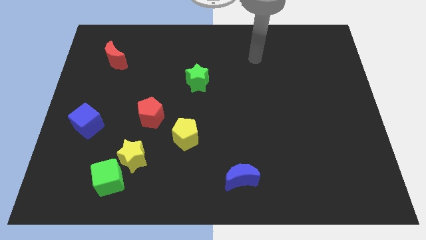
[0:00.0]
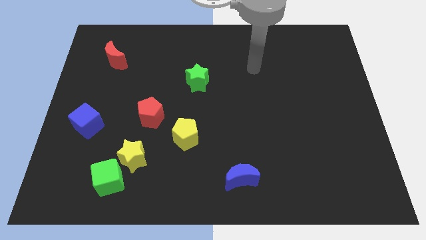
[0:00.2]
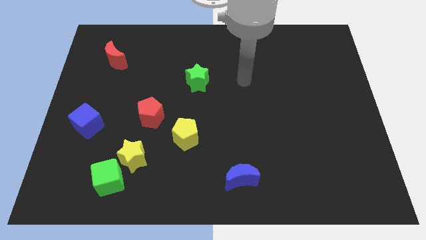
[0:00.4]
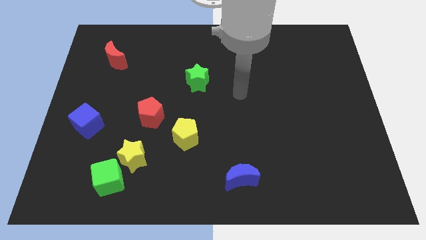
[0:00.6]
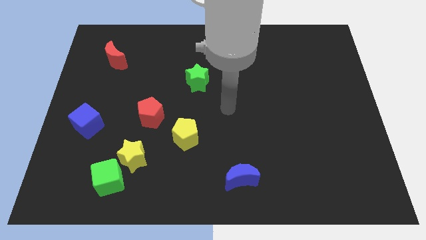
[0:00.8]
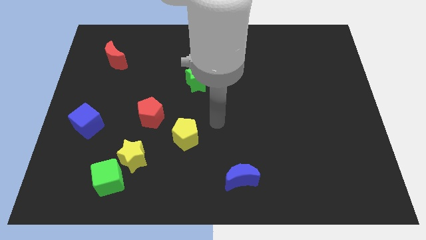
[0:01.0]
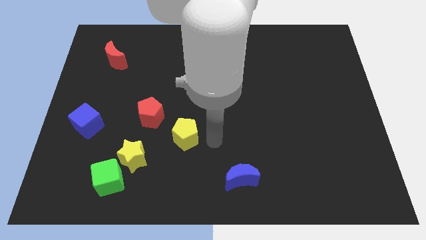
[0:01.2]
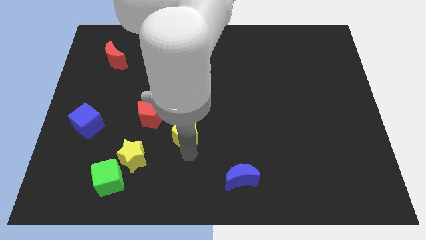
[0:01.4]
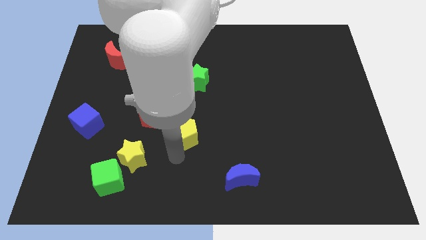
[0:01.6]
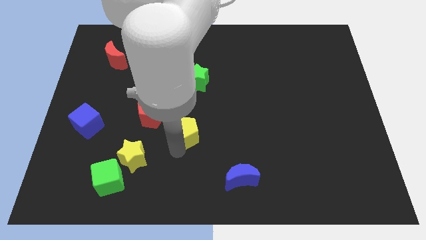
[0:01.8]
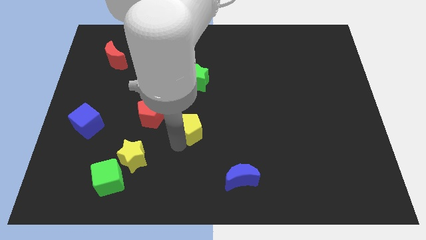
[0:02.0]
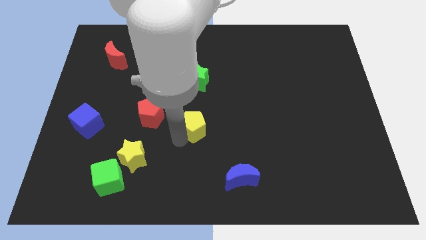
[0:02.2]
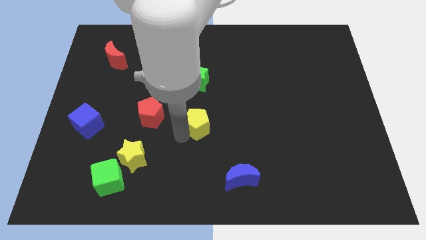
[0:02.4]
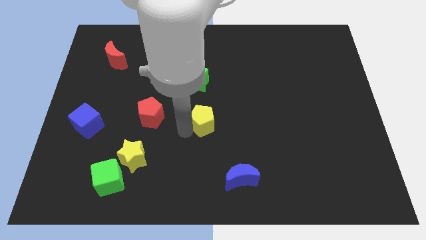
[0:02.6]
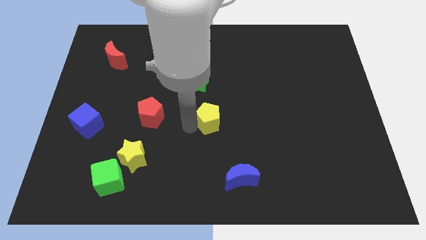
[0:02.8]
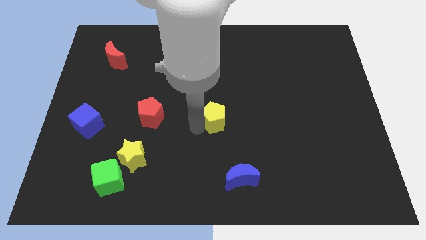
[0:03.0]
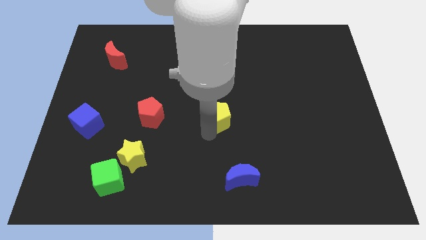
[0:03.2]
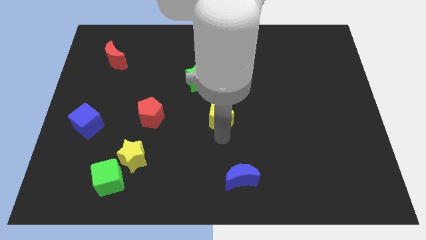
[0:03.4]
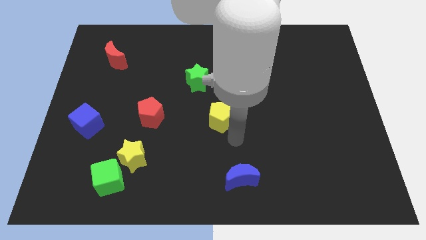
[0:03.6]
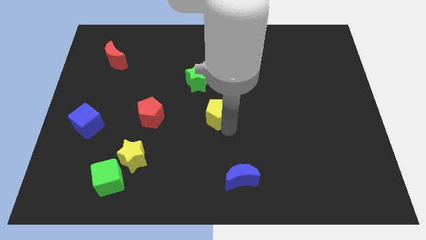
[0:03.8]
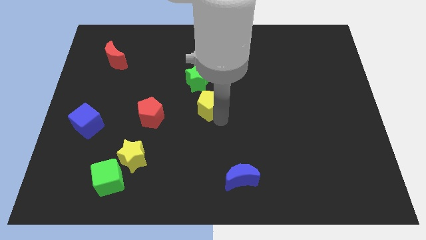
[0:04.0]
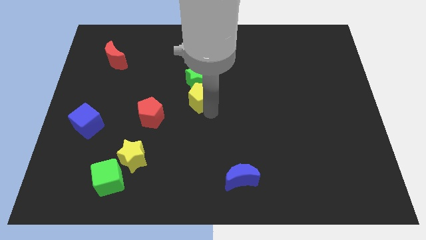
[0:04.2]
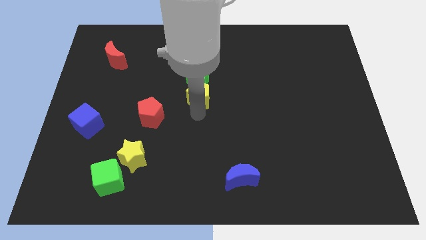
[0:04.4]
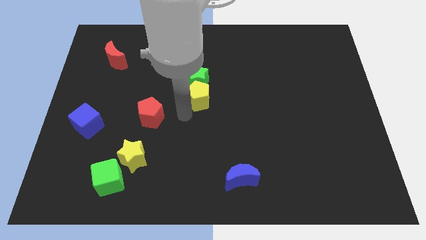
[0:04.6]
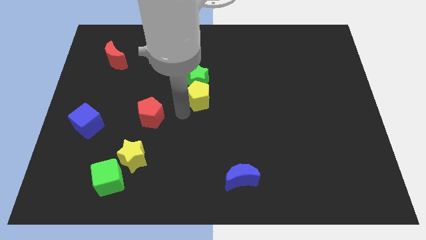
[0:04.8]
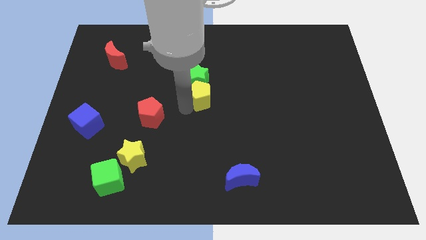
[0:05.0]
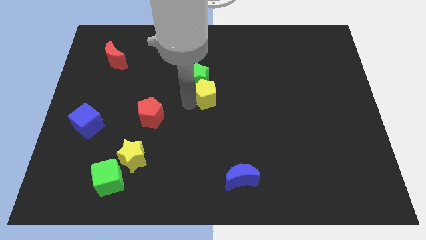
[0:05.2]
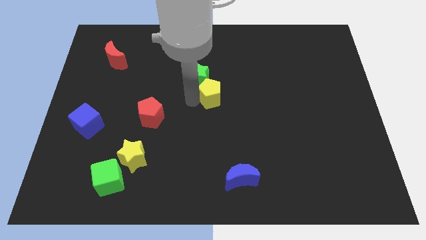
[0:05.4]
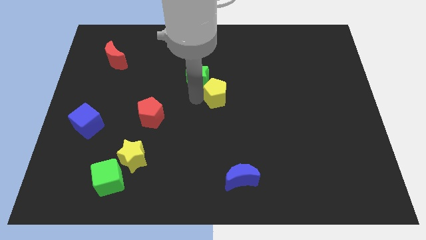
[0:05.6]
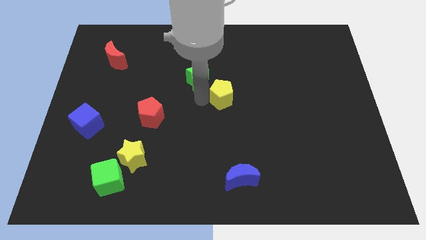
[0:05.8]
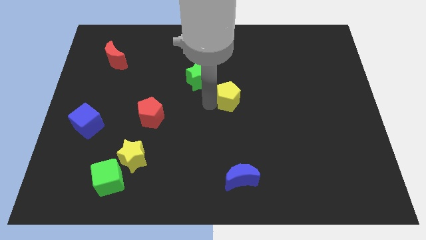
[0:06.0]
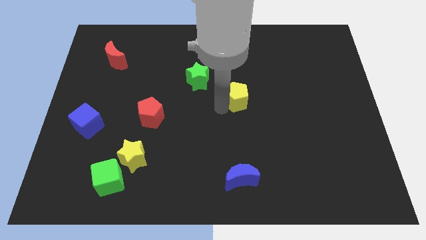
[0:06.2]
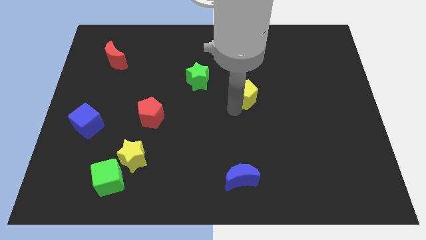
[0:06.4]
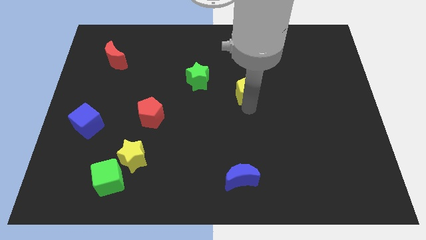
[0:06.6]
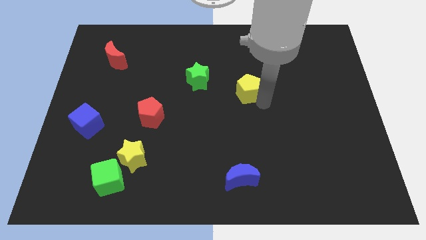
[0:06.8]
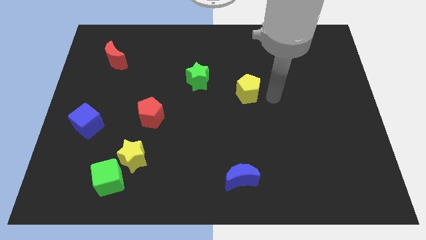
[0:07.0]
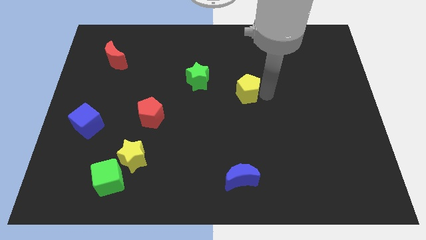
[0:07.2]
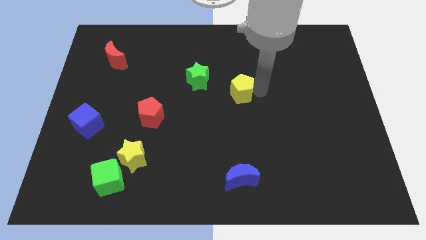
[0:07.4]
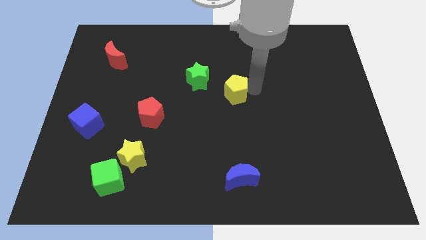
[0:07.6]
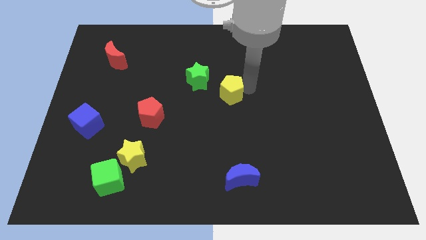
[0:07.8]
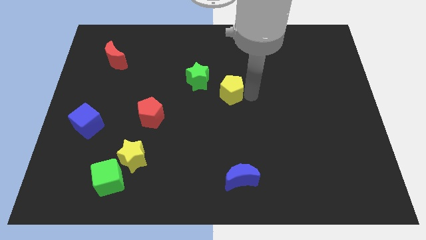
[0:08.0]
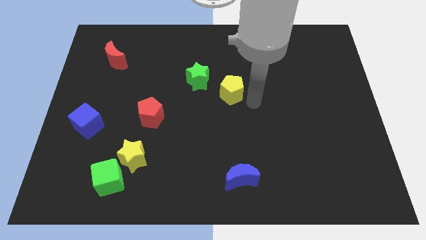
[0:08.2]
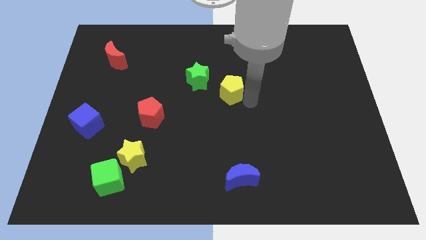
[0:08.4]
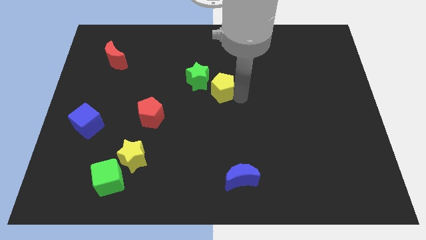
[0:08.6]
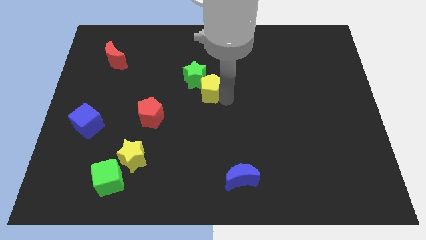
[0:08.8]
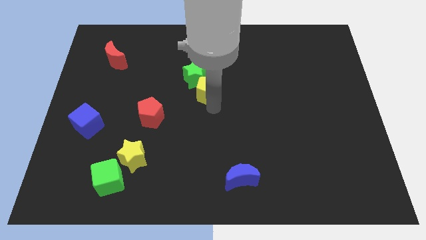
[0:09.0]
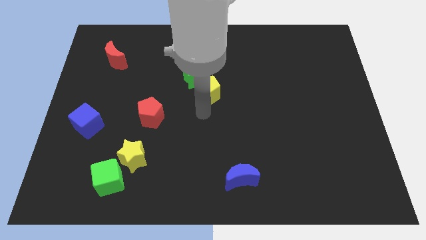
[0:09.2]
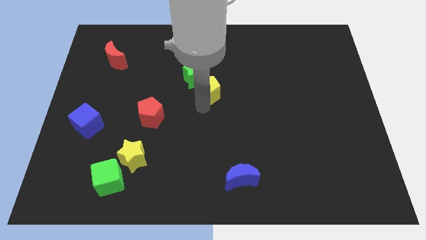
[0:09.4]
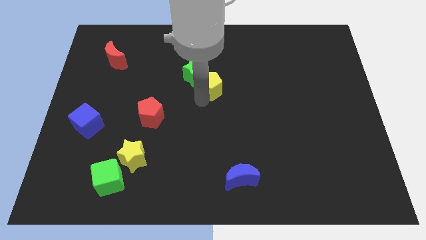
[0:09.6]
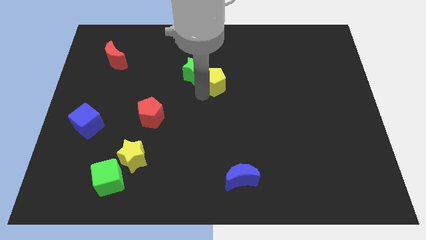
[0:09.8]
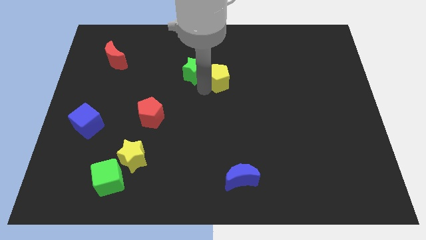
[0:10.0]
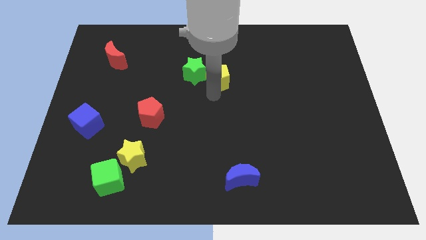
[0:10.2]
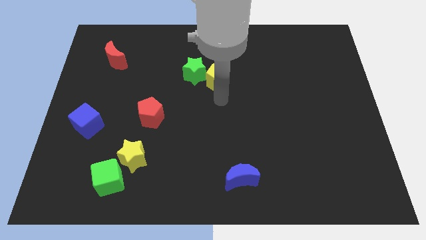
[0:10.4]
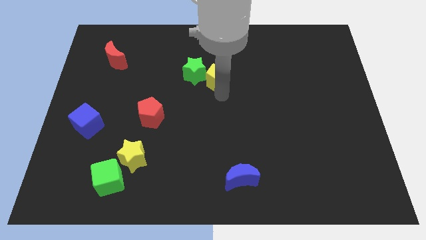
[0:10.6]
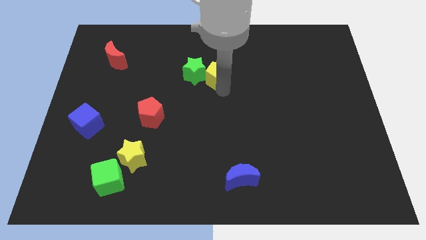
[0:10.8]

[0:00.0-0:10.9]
put the yellow pentagon to the top right side of the green star

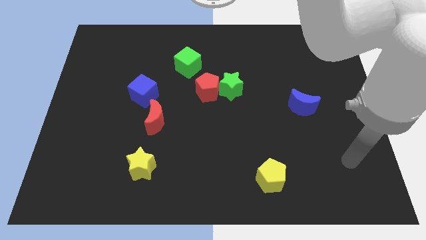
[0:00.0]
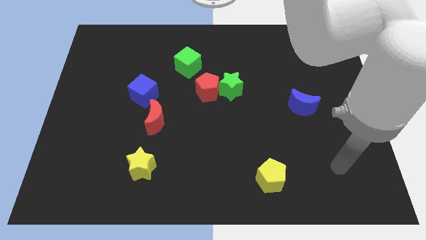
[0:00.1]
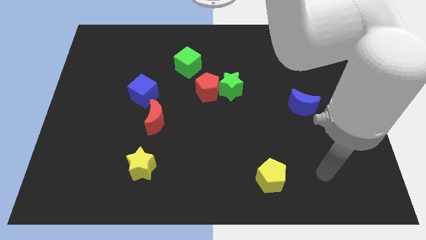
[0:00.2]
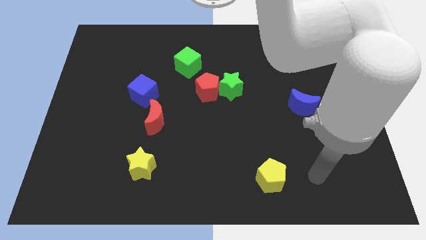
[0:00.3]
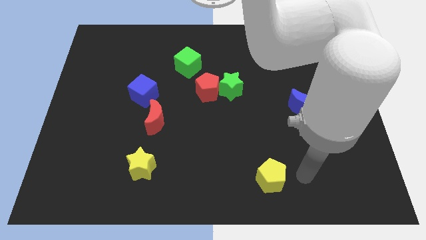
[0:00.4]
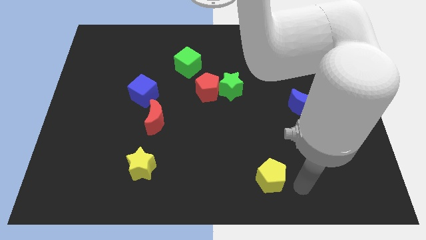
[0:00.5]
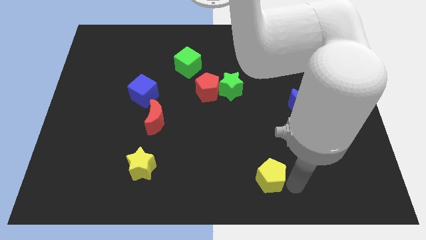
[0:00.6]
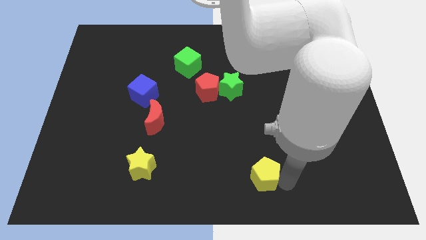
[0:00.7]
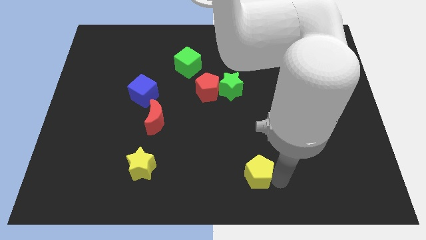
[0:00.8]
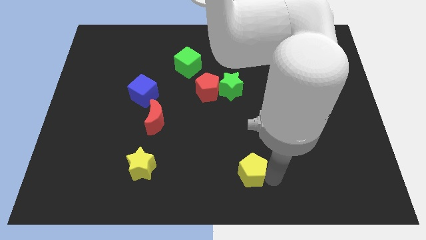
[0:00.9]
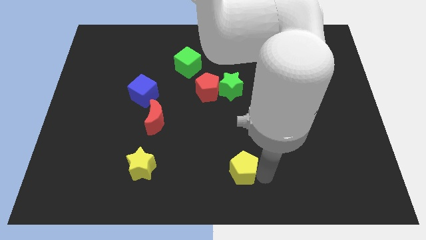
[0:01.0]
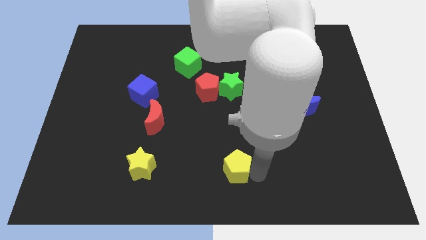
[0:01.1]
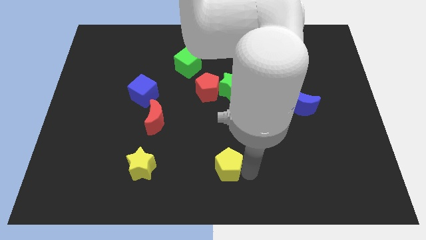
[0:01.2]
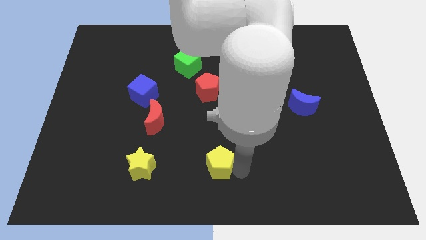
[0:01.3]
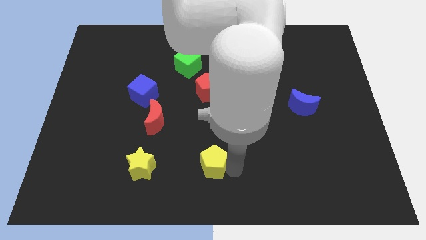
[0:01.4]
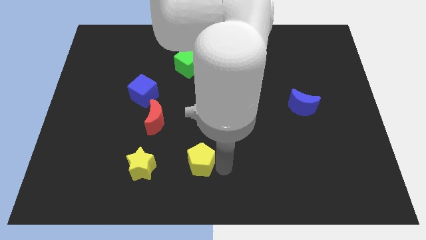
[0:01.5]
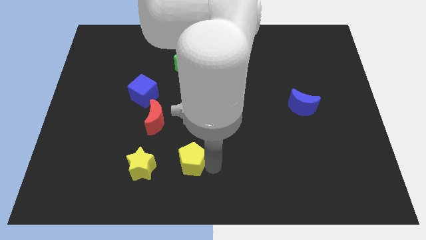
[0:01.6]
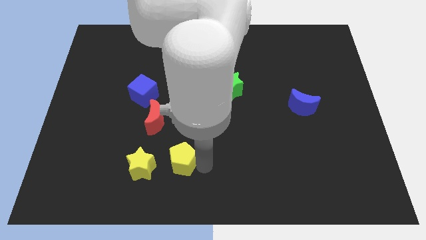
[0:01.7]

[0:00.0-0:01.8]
move the yellow pentagon to the bottom right of the red moon

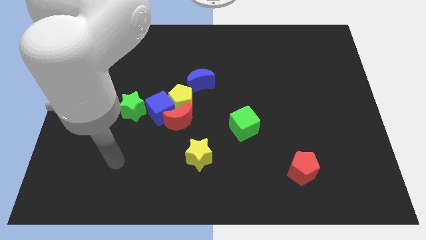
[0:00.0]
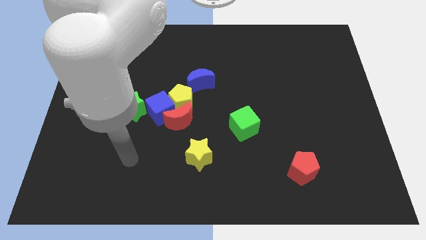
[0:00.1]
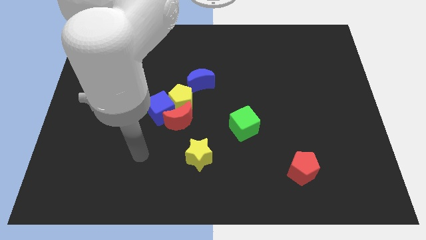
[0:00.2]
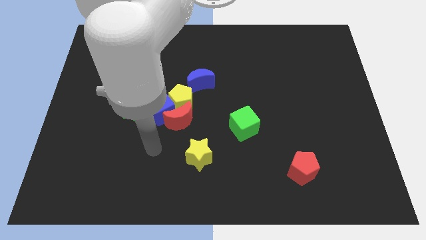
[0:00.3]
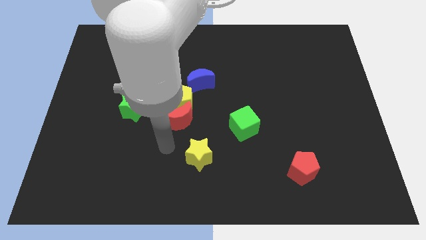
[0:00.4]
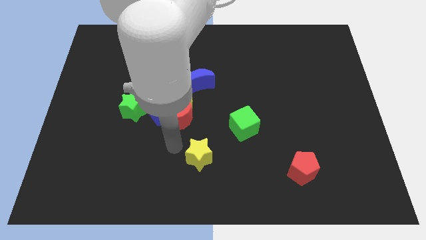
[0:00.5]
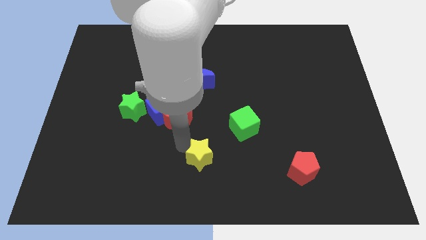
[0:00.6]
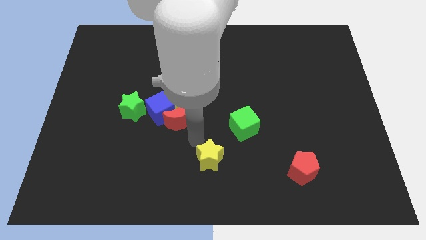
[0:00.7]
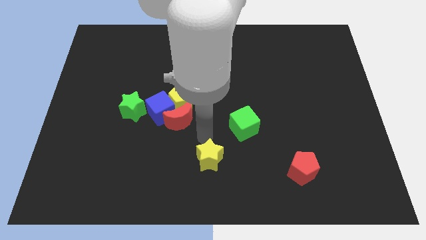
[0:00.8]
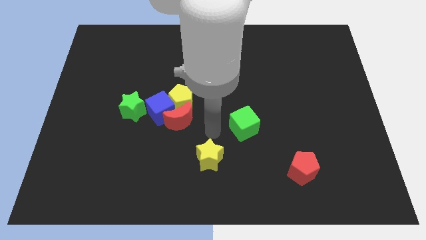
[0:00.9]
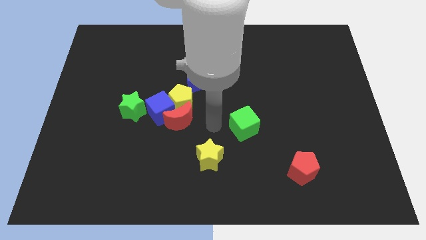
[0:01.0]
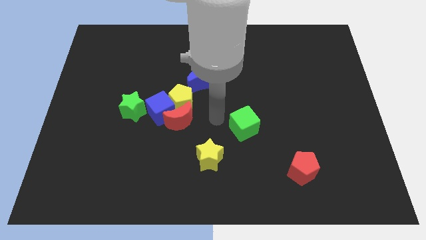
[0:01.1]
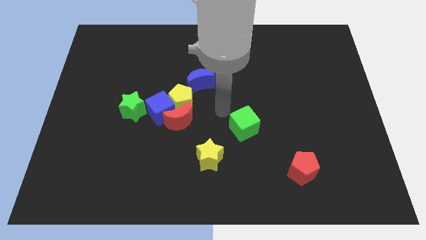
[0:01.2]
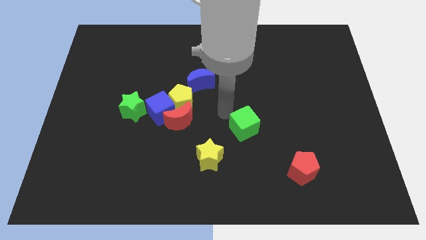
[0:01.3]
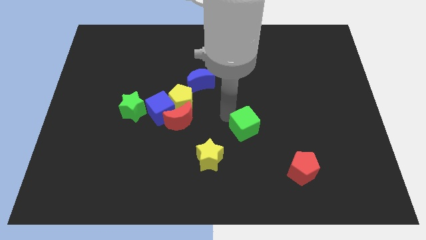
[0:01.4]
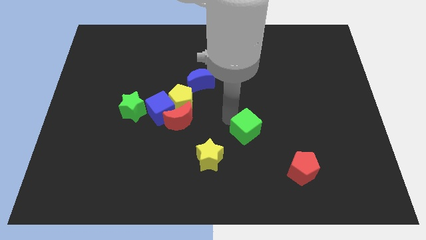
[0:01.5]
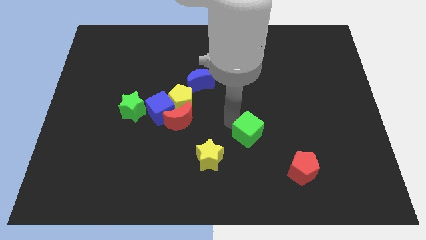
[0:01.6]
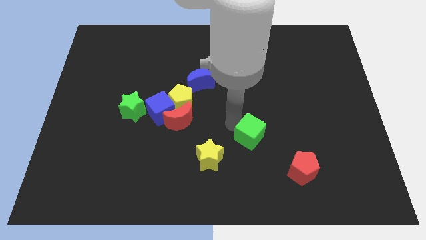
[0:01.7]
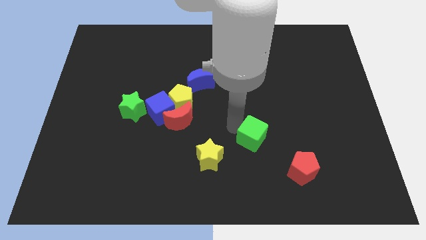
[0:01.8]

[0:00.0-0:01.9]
push the green cube diagonally up and to the left of the red pentagon
